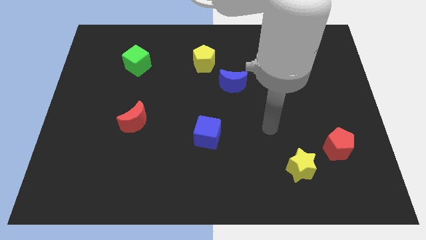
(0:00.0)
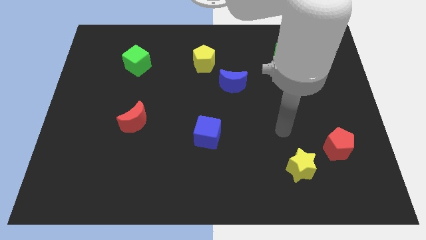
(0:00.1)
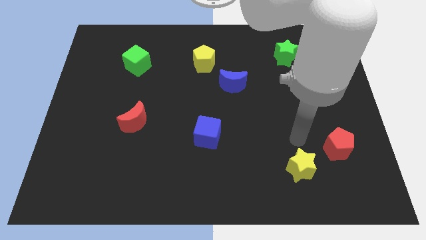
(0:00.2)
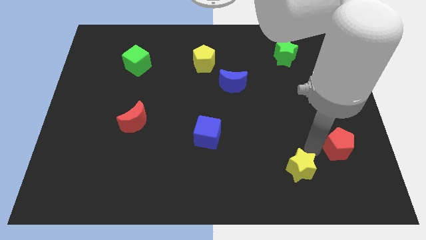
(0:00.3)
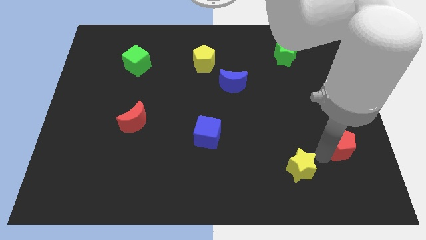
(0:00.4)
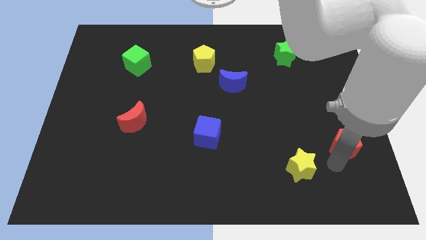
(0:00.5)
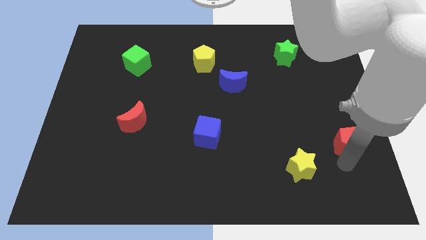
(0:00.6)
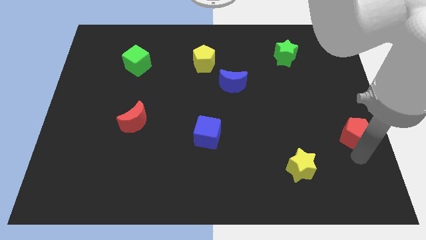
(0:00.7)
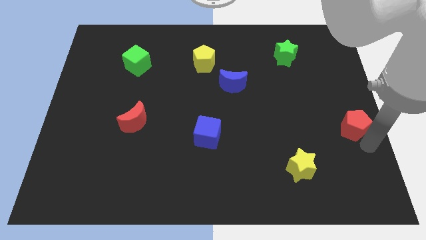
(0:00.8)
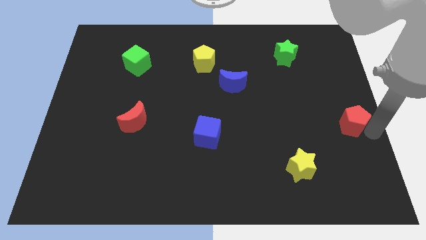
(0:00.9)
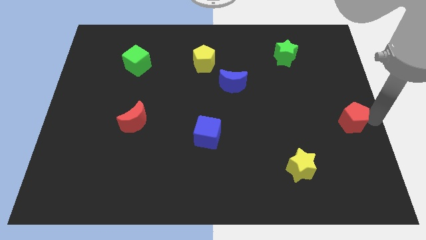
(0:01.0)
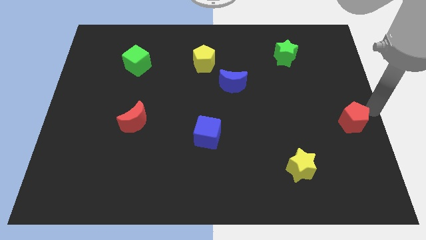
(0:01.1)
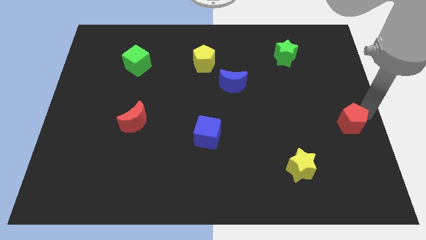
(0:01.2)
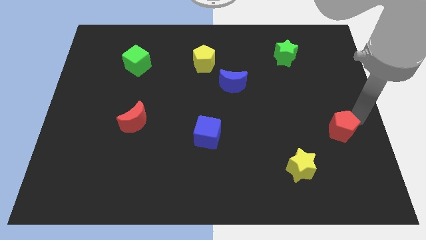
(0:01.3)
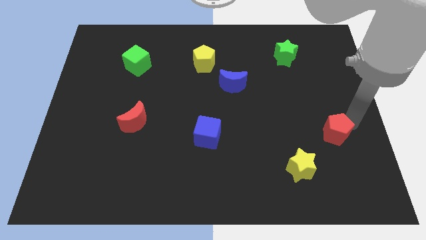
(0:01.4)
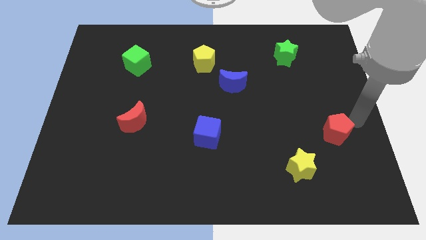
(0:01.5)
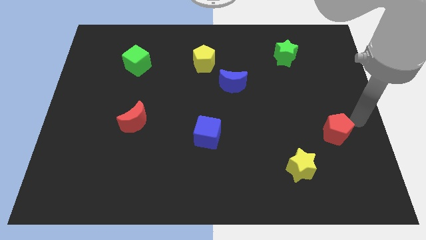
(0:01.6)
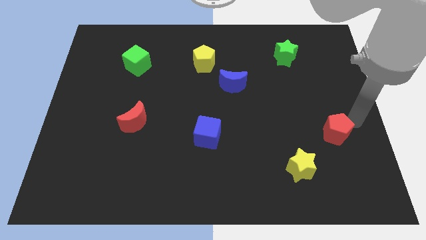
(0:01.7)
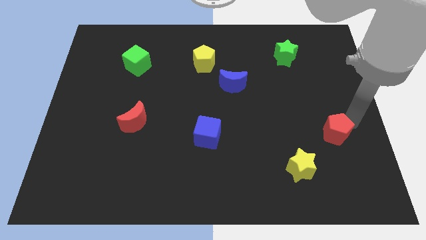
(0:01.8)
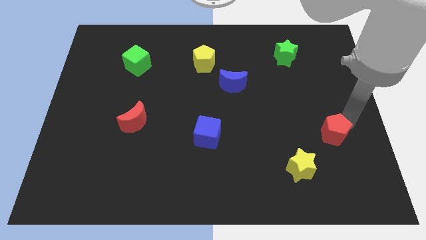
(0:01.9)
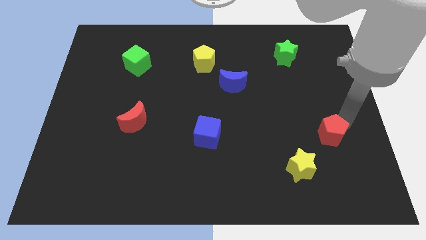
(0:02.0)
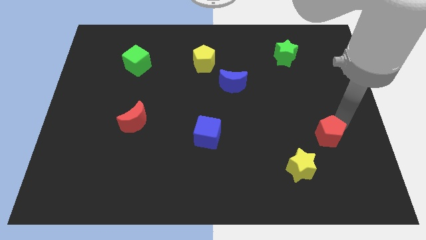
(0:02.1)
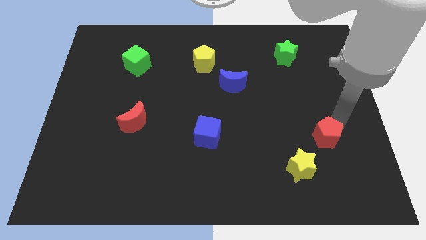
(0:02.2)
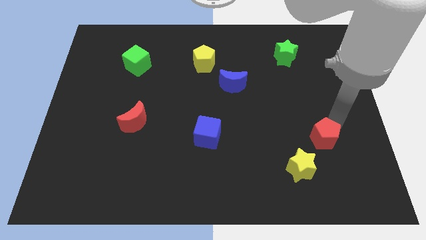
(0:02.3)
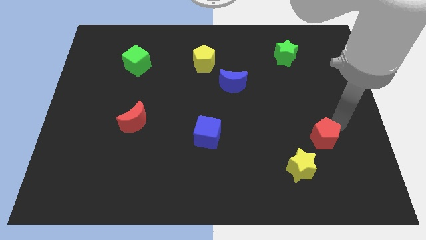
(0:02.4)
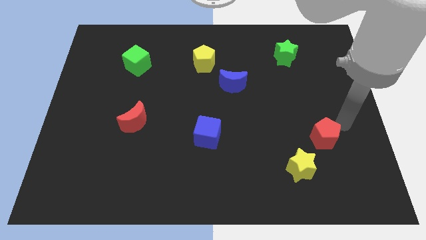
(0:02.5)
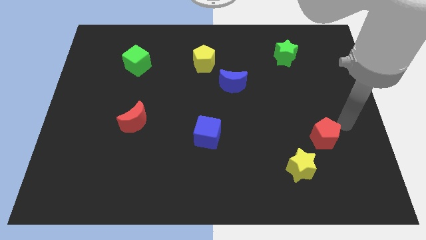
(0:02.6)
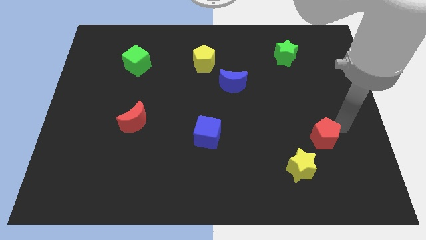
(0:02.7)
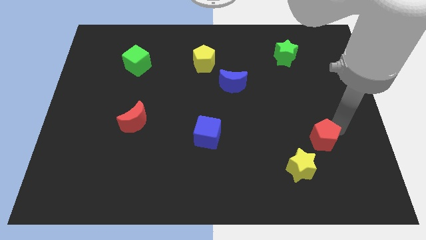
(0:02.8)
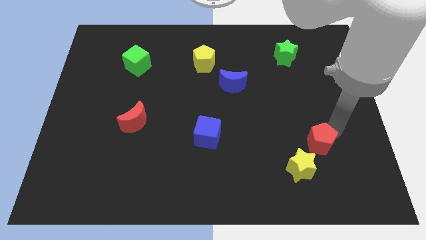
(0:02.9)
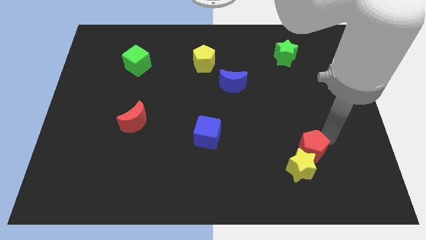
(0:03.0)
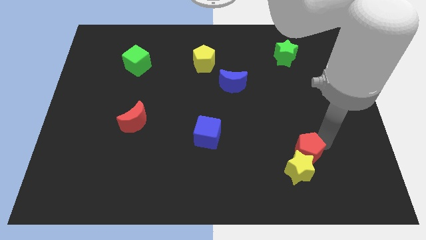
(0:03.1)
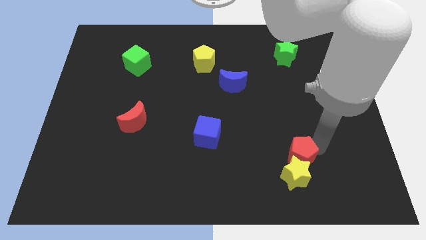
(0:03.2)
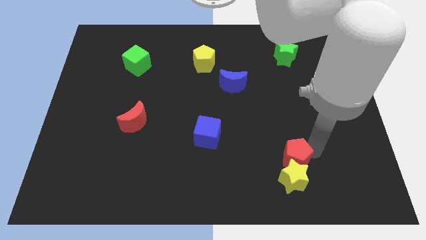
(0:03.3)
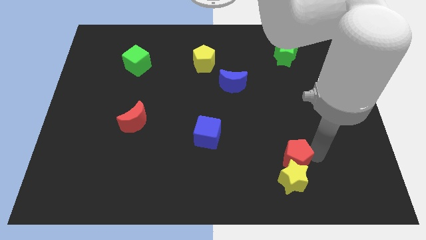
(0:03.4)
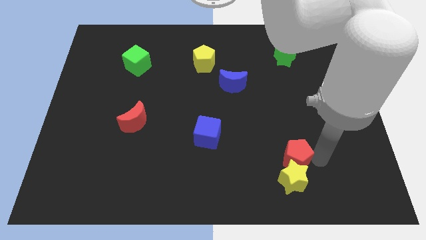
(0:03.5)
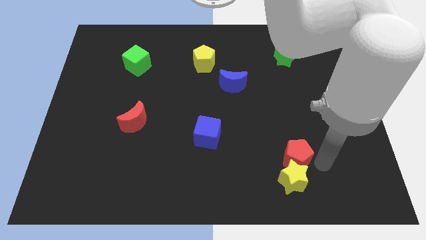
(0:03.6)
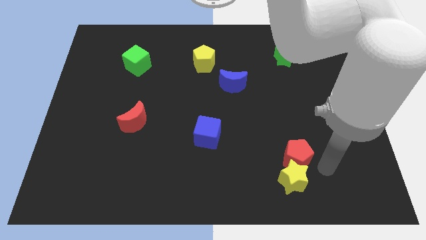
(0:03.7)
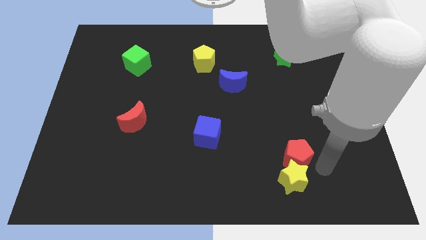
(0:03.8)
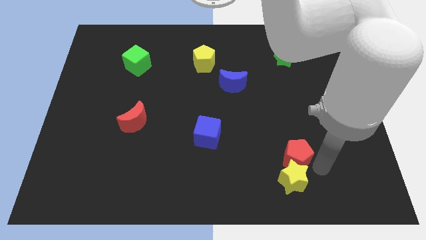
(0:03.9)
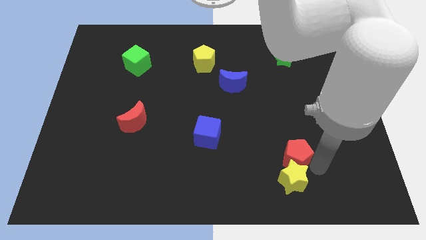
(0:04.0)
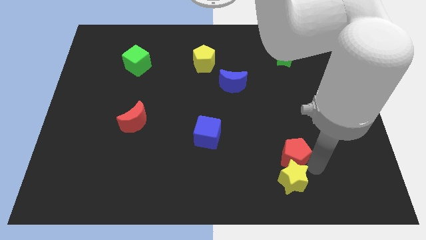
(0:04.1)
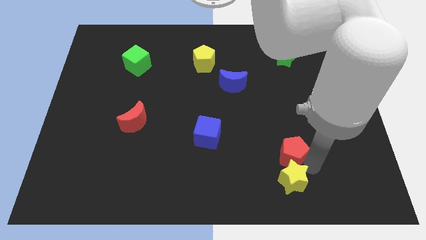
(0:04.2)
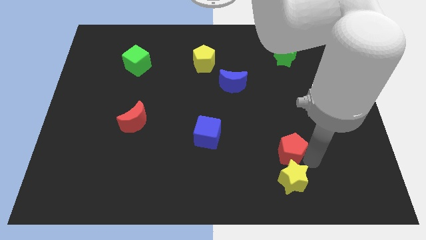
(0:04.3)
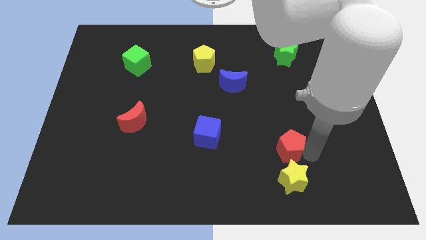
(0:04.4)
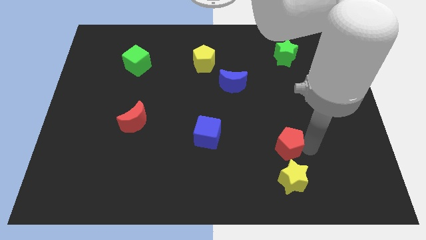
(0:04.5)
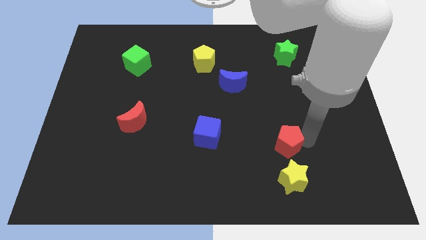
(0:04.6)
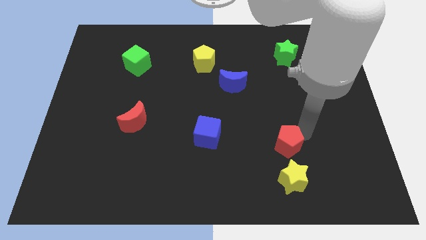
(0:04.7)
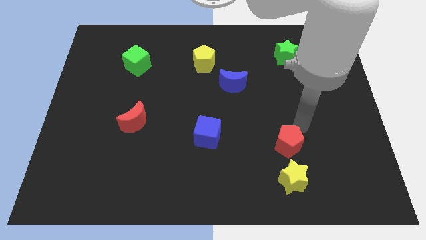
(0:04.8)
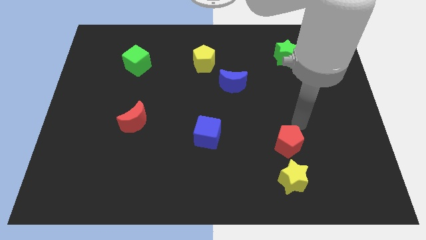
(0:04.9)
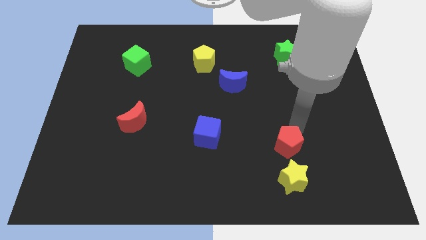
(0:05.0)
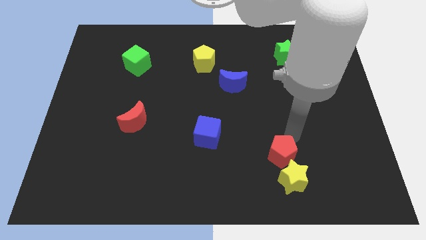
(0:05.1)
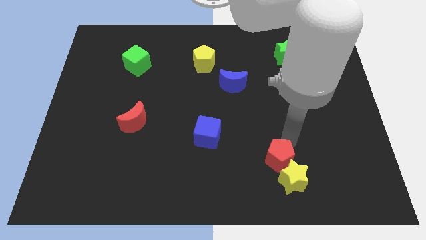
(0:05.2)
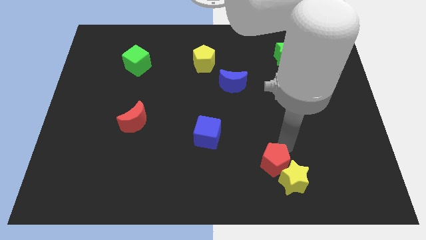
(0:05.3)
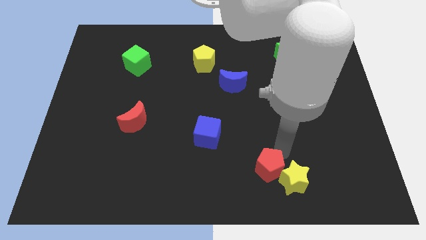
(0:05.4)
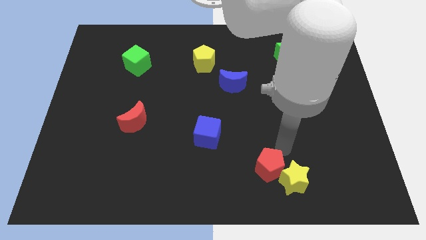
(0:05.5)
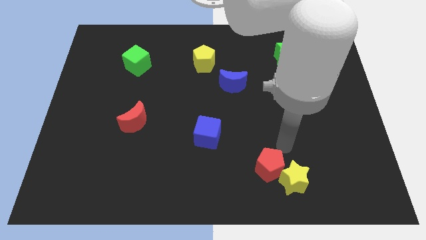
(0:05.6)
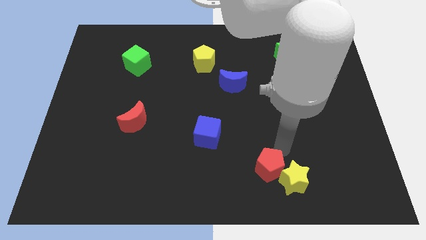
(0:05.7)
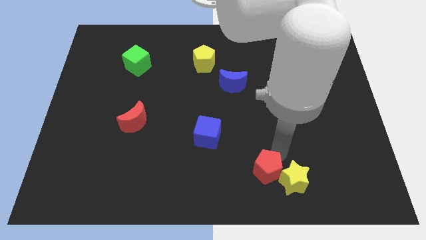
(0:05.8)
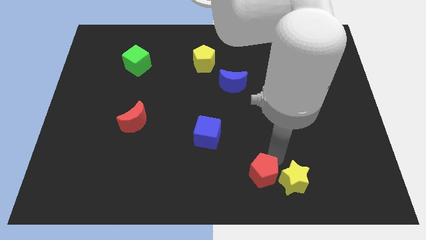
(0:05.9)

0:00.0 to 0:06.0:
put the red pentagon to the bottom

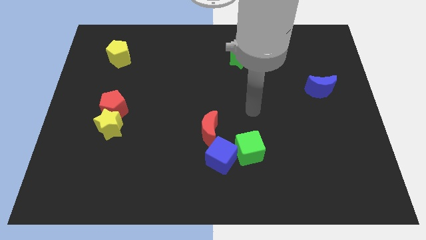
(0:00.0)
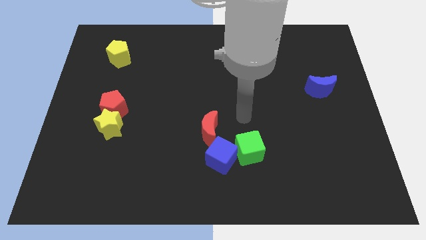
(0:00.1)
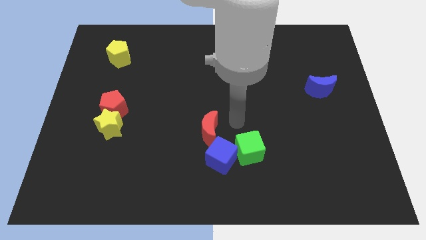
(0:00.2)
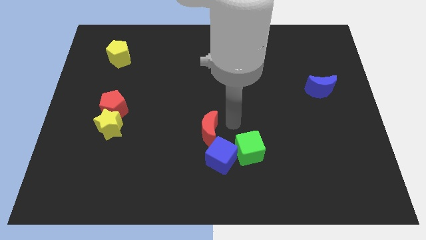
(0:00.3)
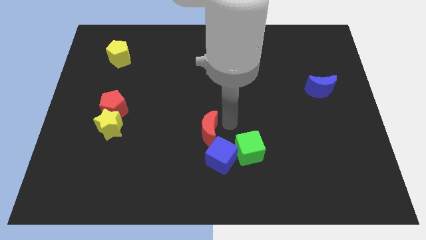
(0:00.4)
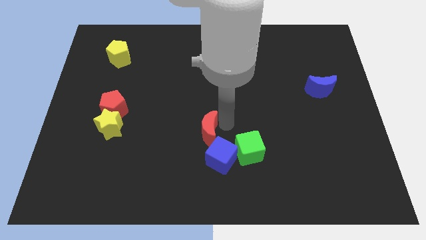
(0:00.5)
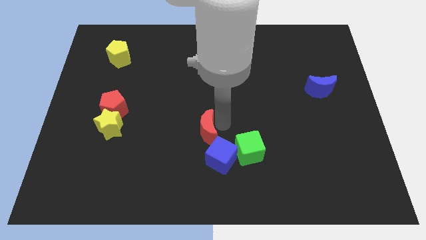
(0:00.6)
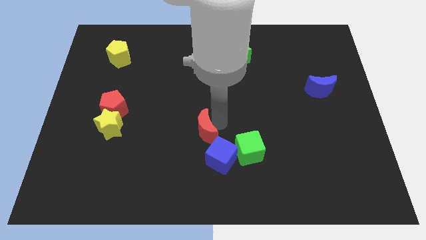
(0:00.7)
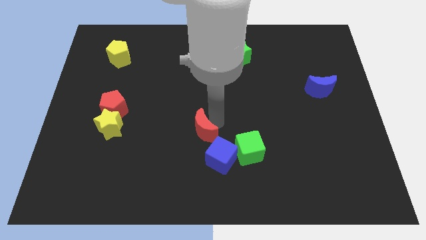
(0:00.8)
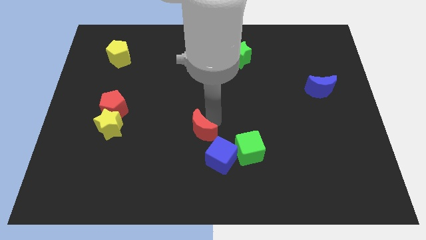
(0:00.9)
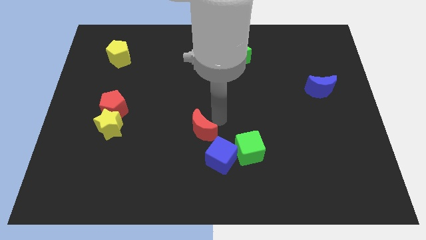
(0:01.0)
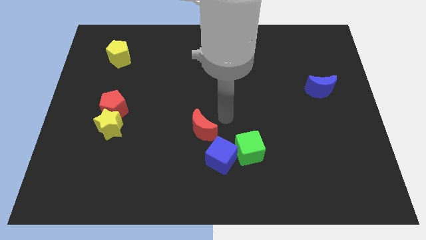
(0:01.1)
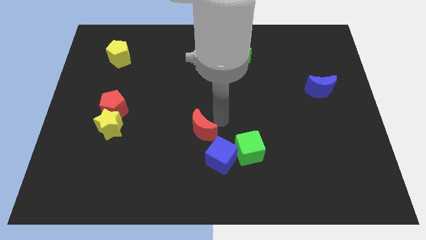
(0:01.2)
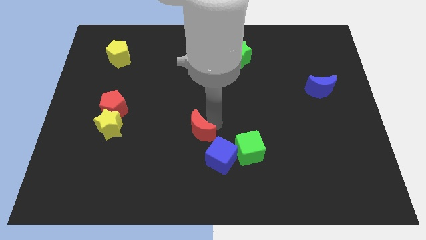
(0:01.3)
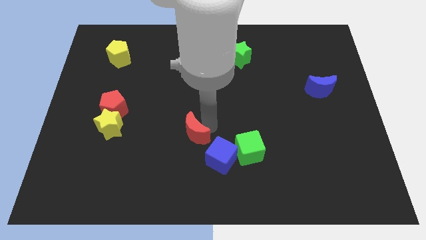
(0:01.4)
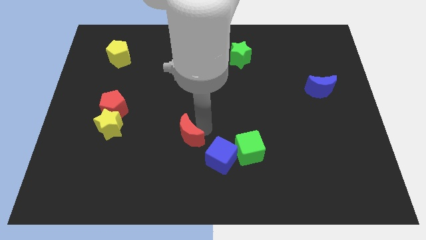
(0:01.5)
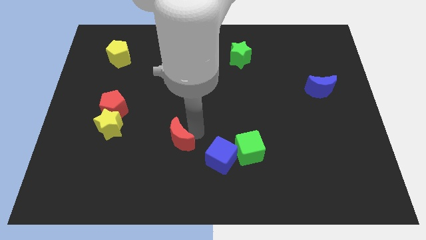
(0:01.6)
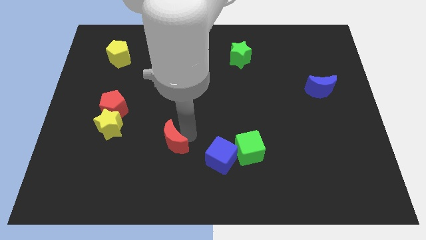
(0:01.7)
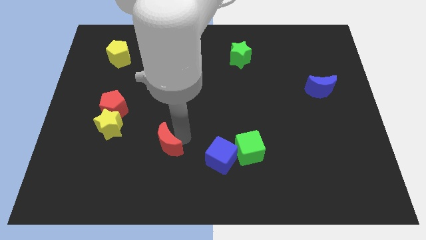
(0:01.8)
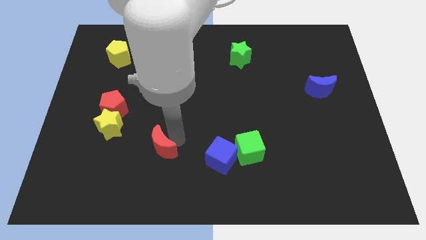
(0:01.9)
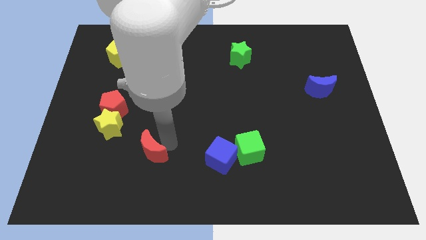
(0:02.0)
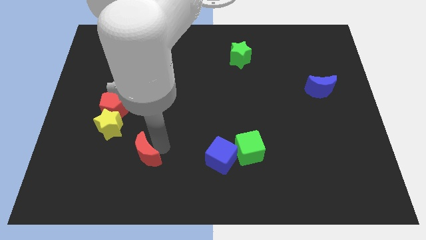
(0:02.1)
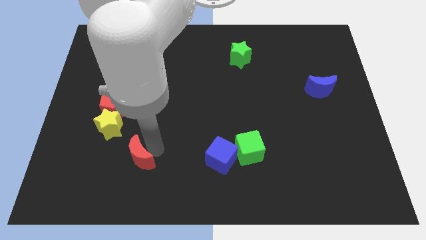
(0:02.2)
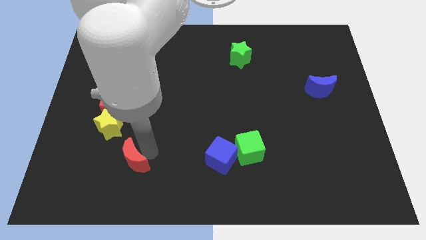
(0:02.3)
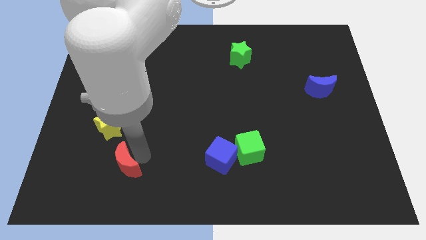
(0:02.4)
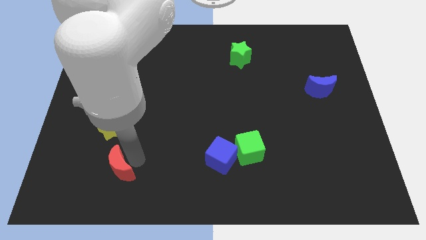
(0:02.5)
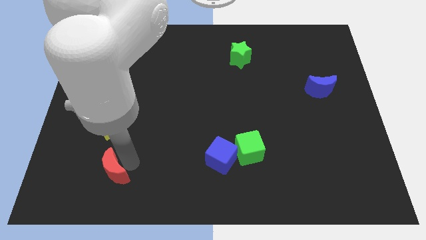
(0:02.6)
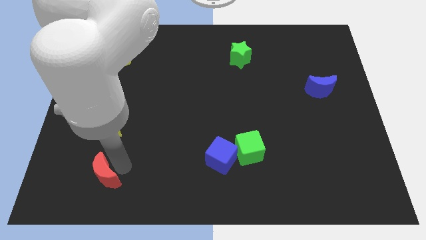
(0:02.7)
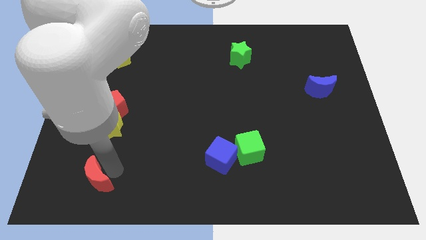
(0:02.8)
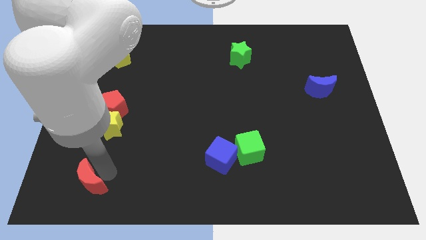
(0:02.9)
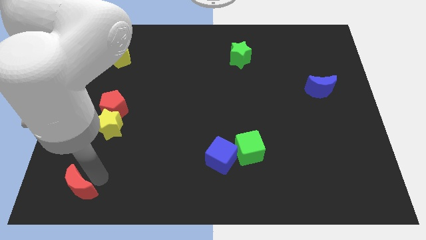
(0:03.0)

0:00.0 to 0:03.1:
put the red moon to the lower left corner
